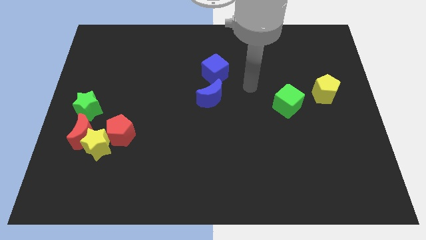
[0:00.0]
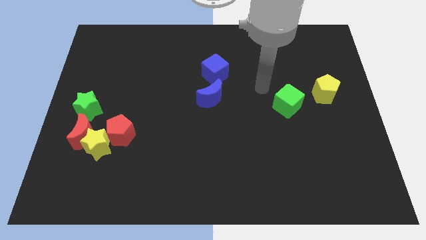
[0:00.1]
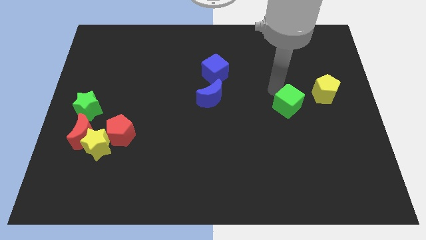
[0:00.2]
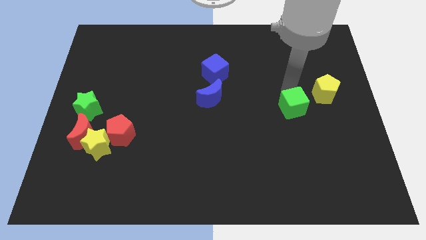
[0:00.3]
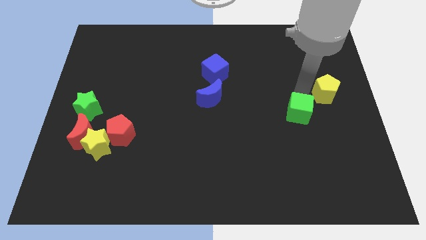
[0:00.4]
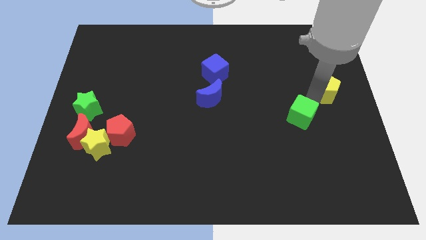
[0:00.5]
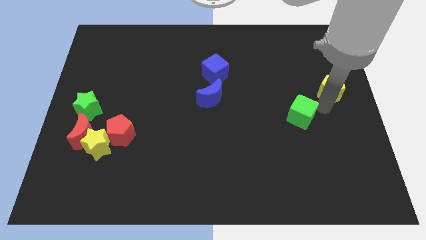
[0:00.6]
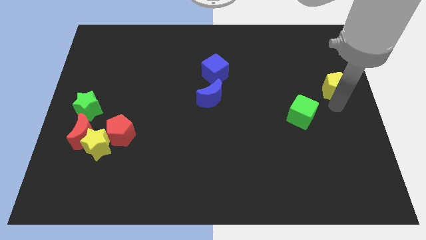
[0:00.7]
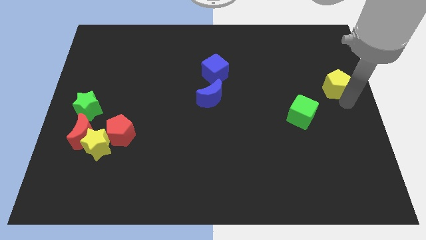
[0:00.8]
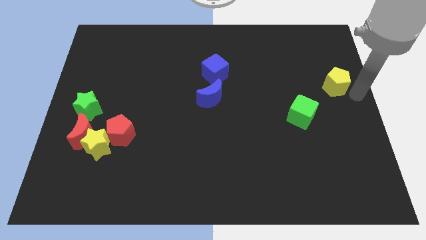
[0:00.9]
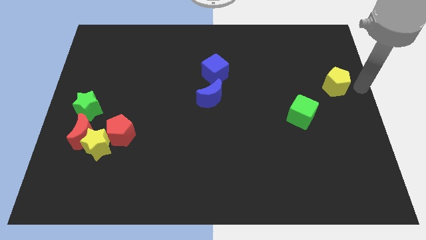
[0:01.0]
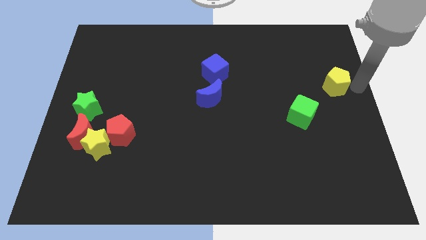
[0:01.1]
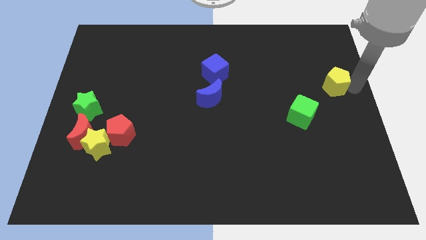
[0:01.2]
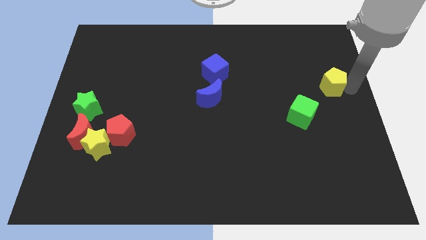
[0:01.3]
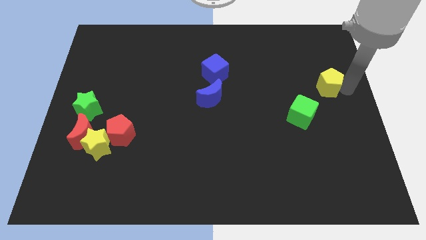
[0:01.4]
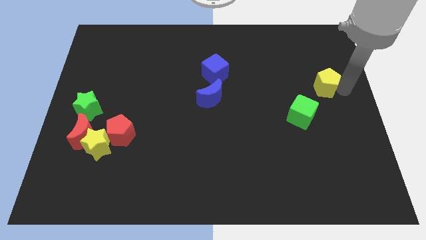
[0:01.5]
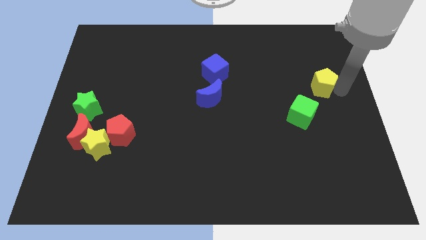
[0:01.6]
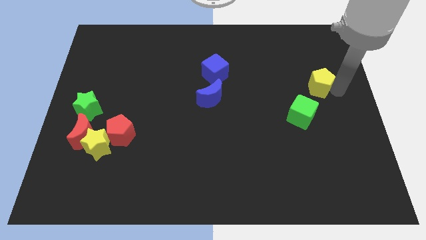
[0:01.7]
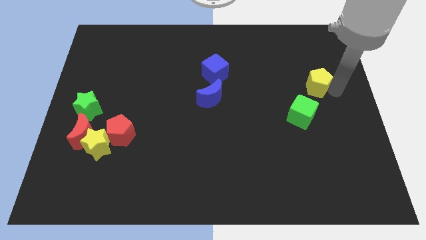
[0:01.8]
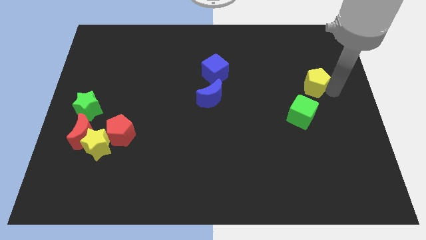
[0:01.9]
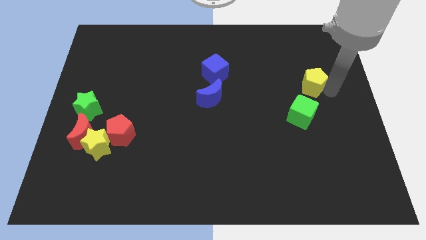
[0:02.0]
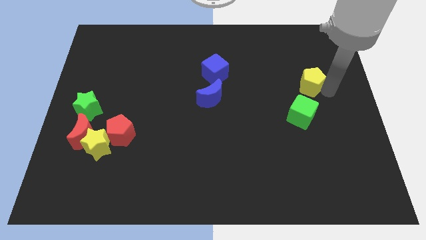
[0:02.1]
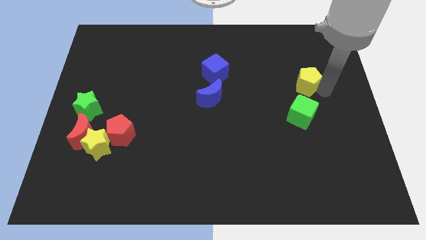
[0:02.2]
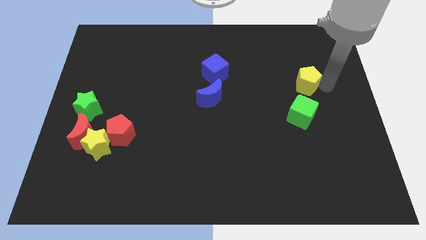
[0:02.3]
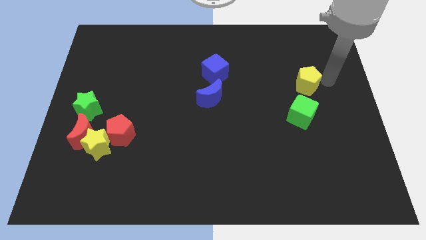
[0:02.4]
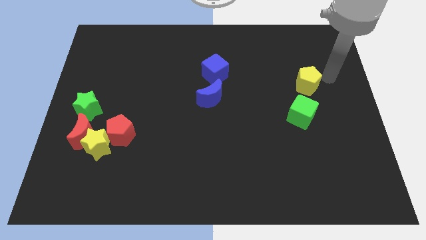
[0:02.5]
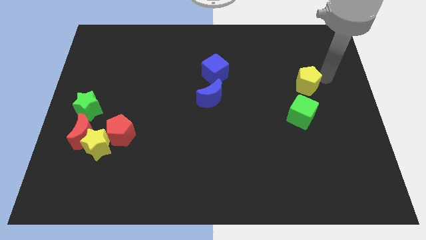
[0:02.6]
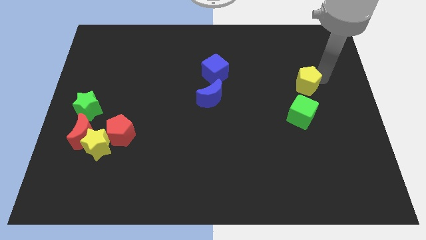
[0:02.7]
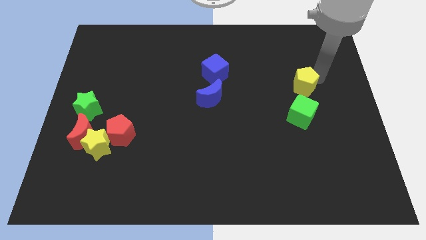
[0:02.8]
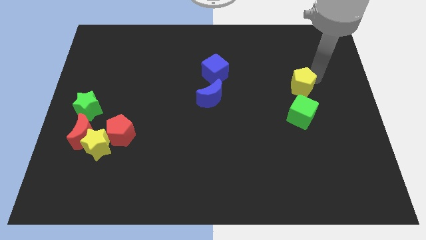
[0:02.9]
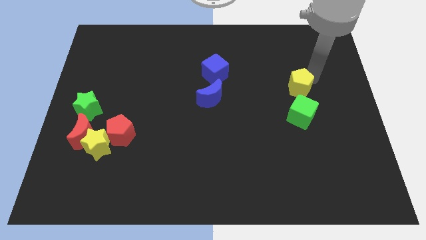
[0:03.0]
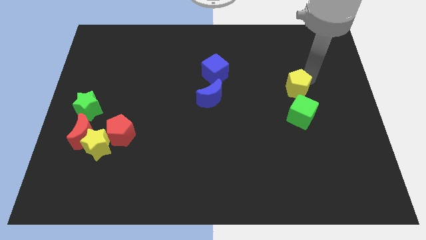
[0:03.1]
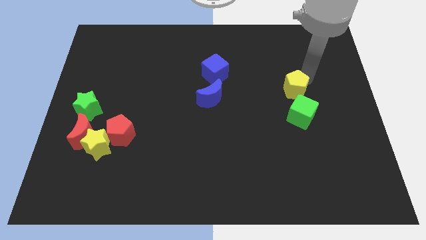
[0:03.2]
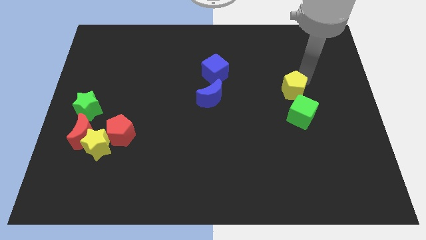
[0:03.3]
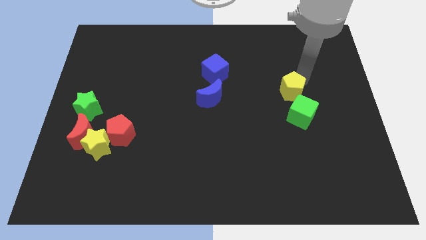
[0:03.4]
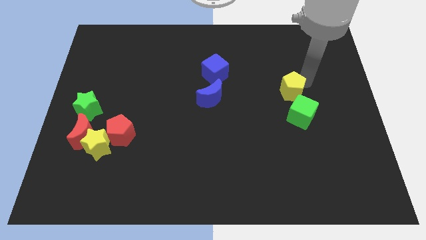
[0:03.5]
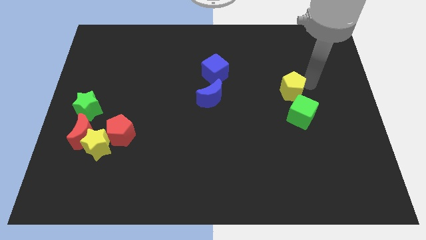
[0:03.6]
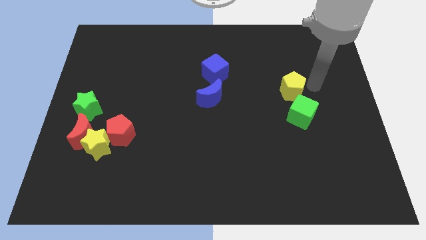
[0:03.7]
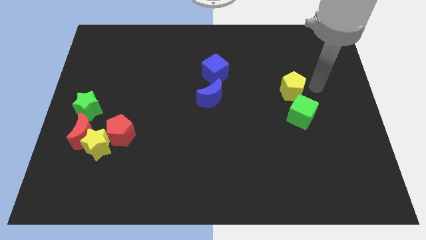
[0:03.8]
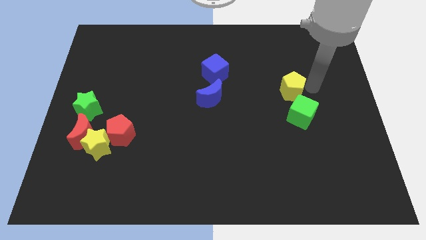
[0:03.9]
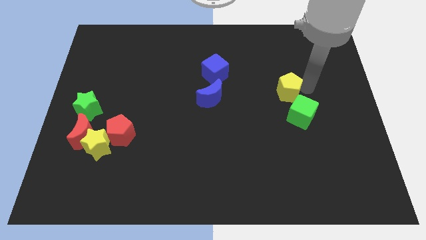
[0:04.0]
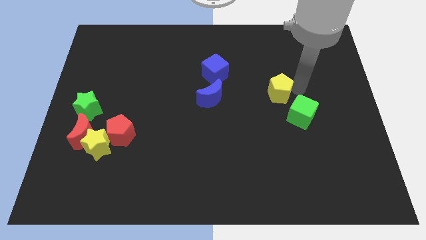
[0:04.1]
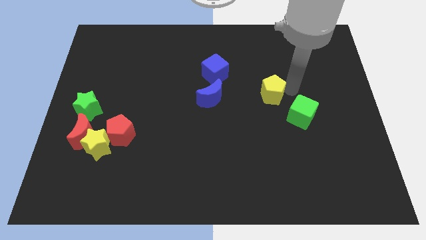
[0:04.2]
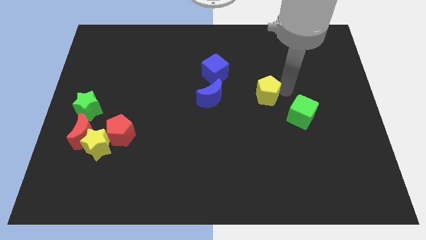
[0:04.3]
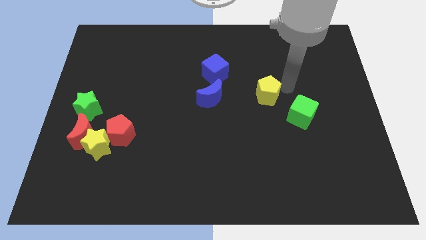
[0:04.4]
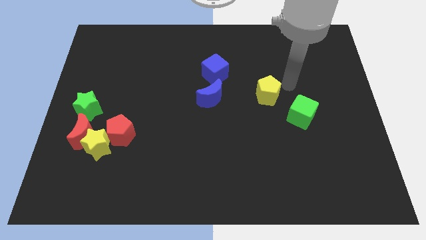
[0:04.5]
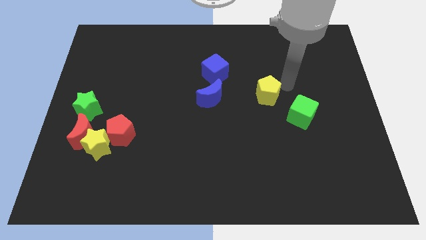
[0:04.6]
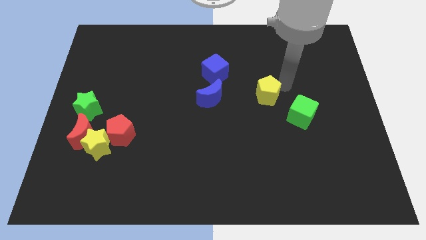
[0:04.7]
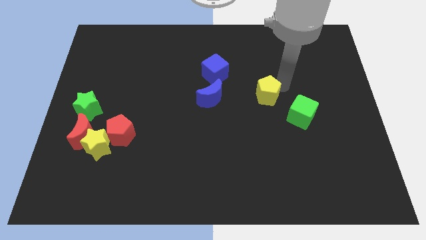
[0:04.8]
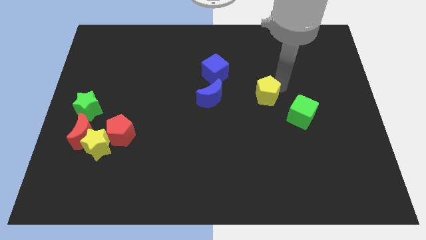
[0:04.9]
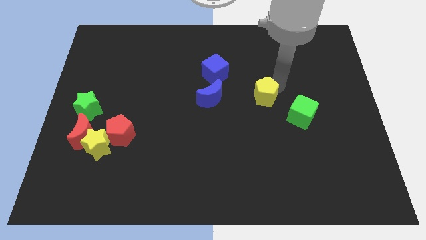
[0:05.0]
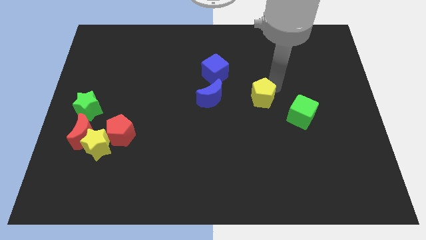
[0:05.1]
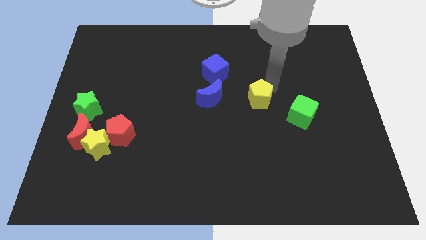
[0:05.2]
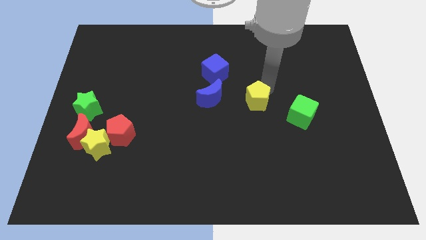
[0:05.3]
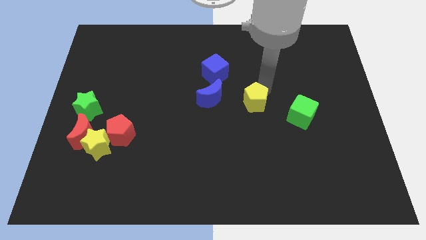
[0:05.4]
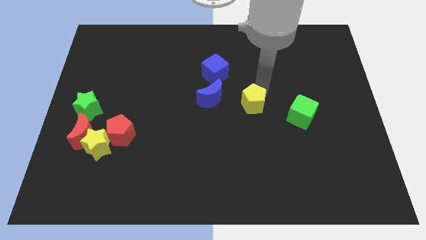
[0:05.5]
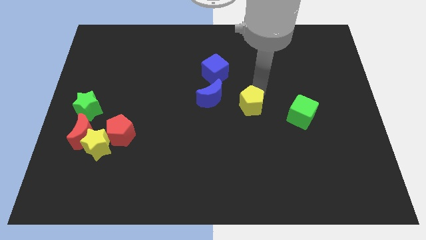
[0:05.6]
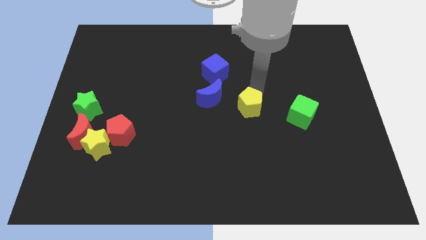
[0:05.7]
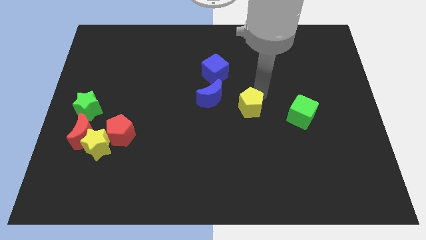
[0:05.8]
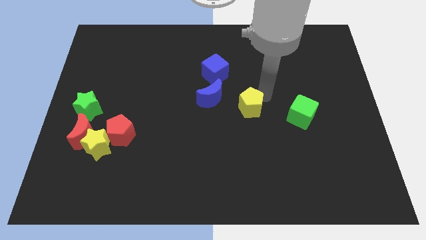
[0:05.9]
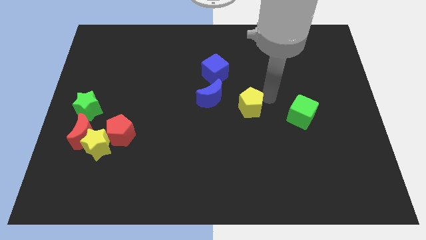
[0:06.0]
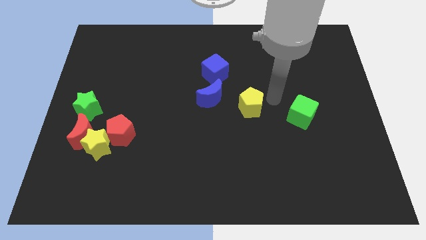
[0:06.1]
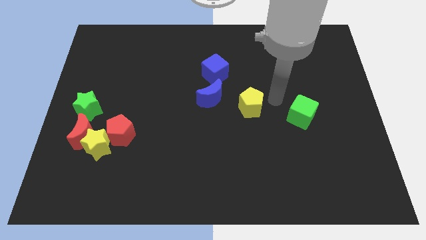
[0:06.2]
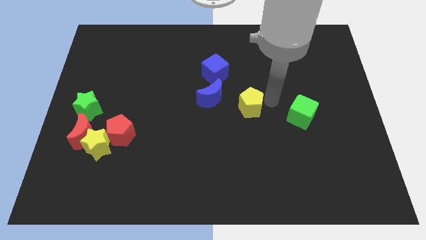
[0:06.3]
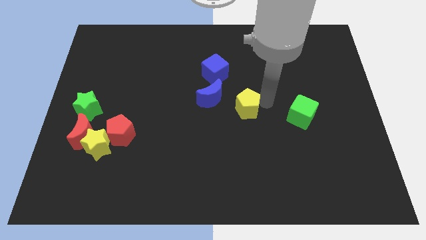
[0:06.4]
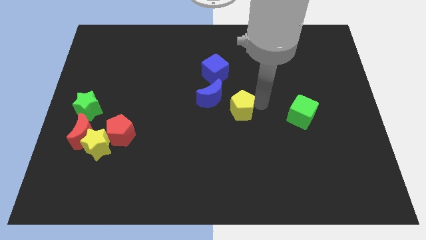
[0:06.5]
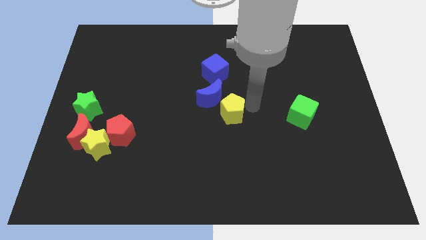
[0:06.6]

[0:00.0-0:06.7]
slide the yellow pentagon to the left

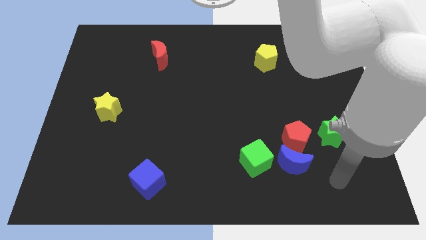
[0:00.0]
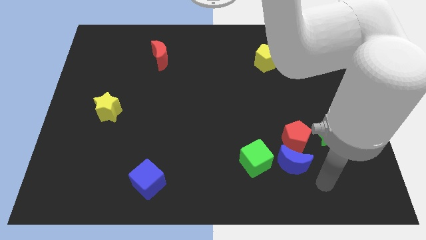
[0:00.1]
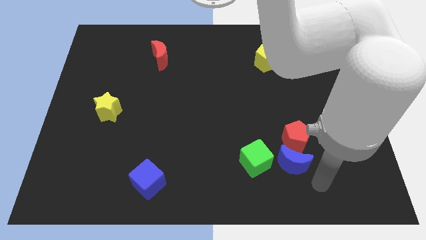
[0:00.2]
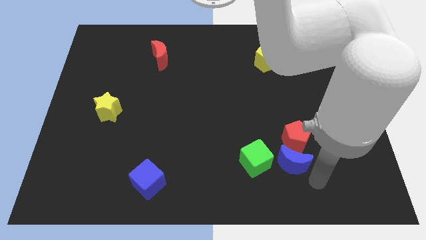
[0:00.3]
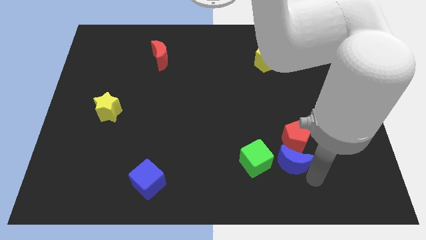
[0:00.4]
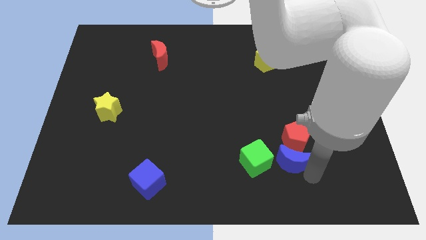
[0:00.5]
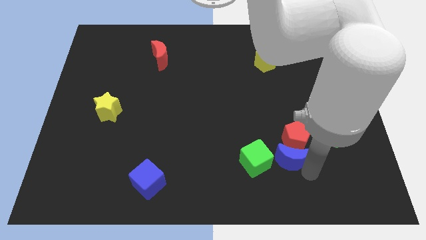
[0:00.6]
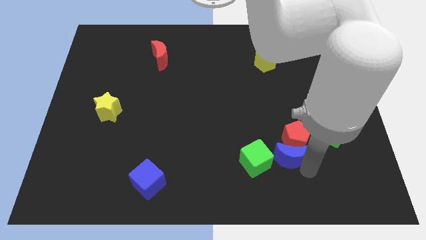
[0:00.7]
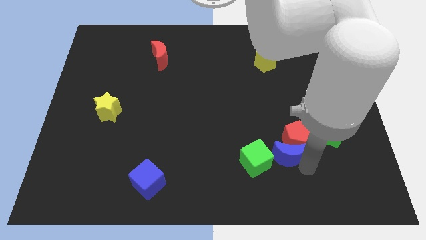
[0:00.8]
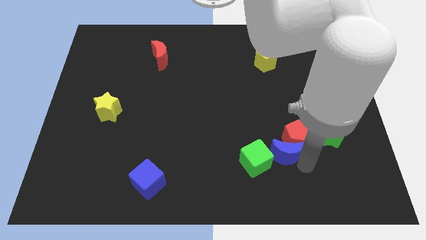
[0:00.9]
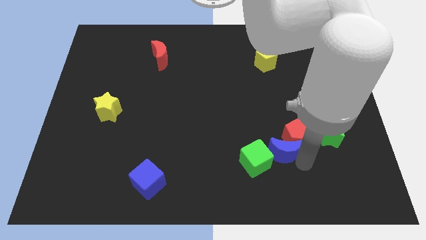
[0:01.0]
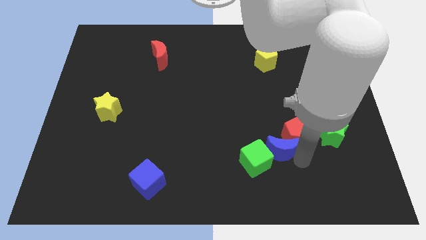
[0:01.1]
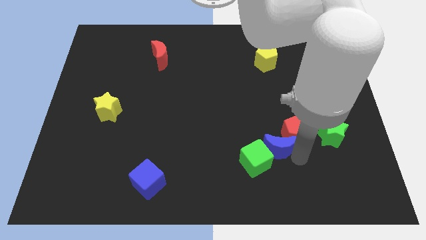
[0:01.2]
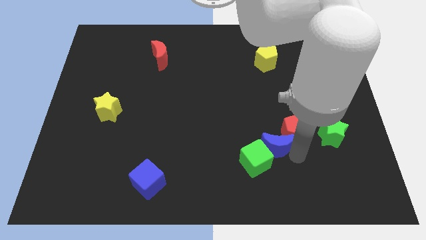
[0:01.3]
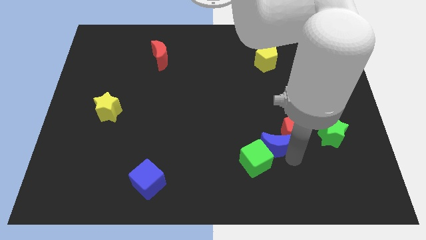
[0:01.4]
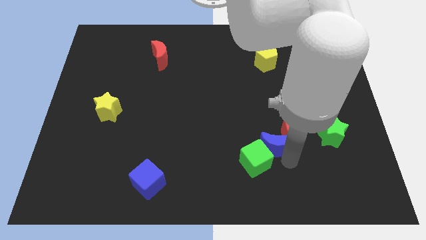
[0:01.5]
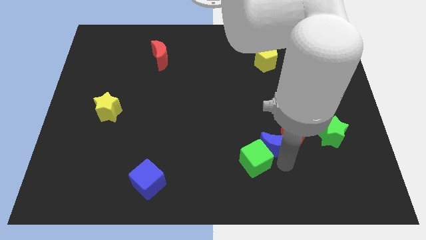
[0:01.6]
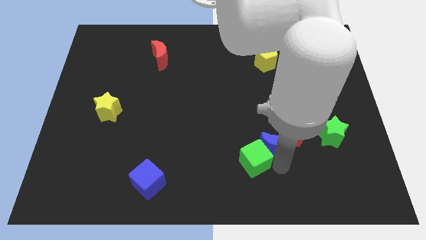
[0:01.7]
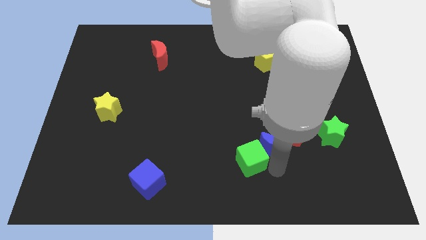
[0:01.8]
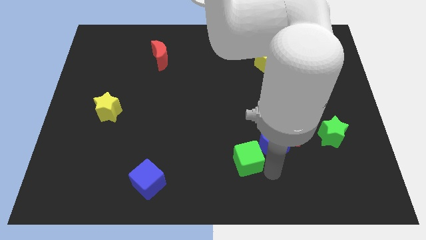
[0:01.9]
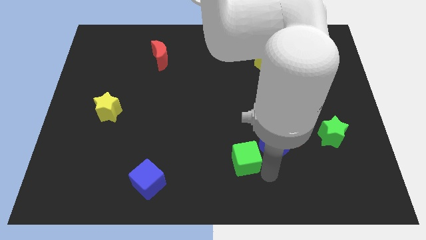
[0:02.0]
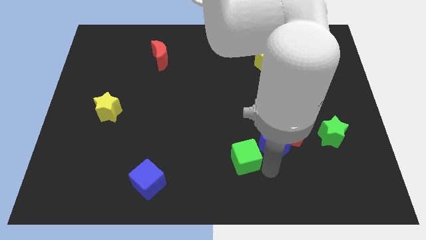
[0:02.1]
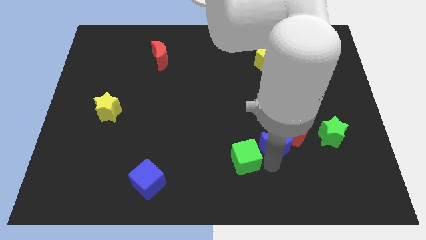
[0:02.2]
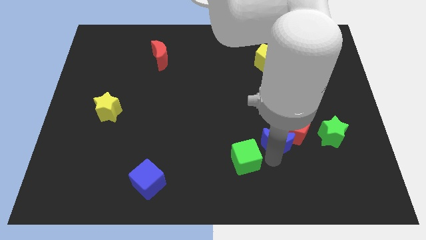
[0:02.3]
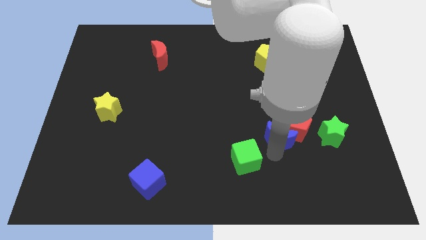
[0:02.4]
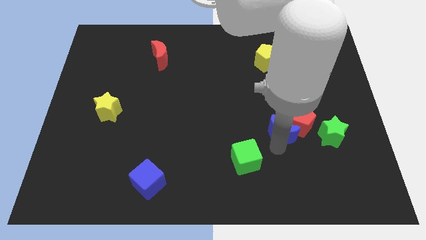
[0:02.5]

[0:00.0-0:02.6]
slide the blue moon up a bit
